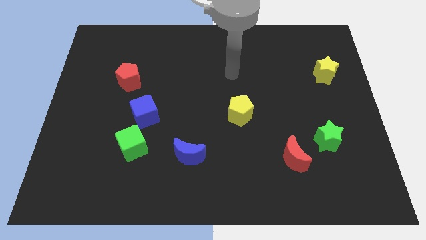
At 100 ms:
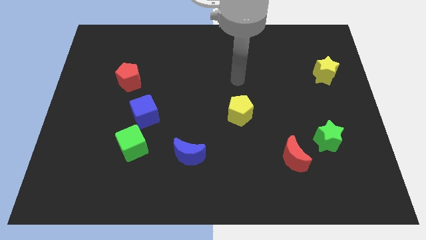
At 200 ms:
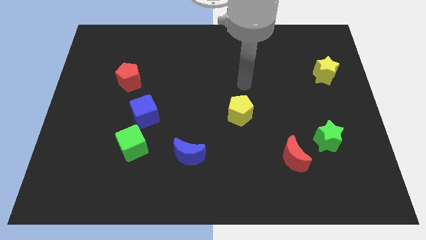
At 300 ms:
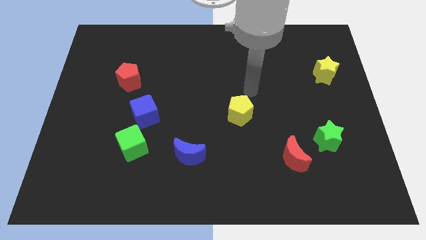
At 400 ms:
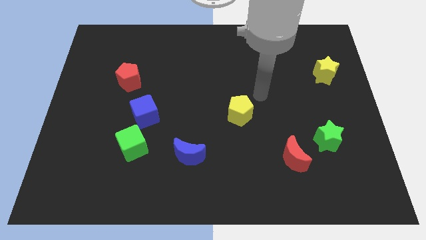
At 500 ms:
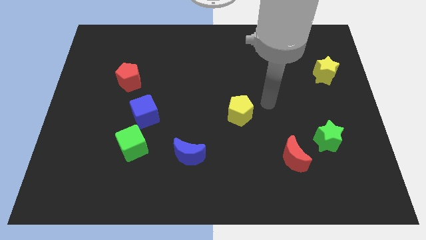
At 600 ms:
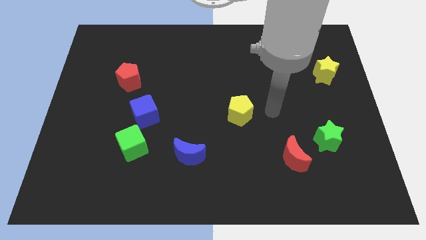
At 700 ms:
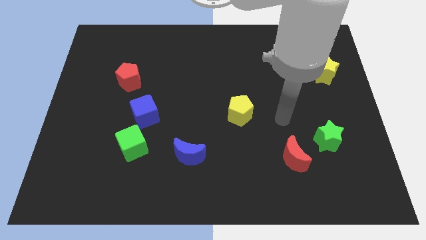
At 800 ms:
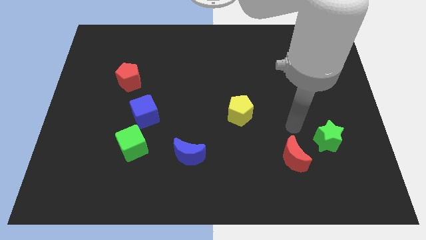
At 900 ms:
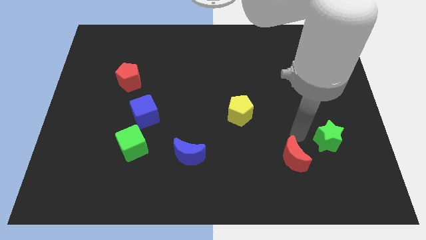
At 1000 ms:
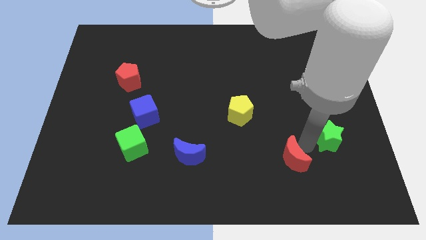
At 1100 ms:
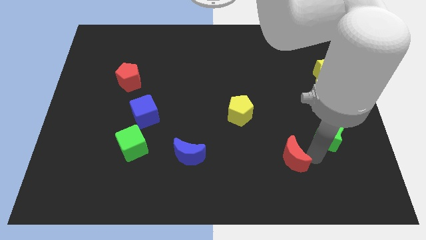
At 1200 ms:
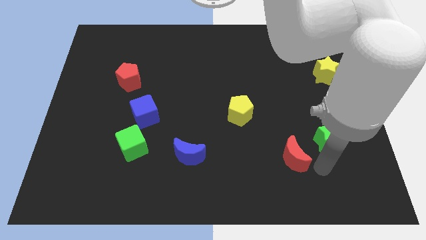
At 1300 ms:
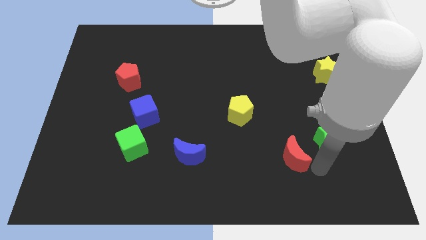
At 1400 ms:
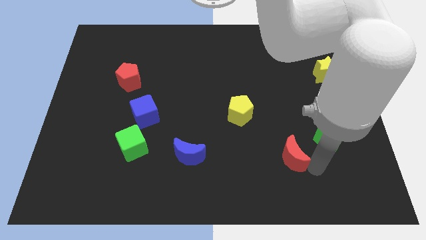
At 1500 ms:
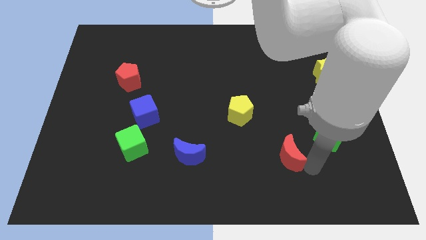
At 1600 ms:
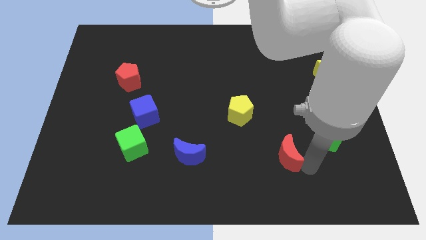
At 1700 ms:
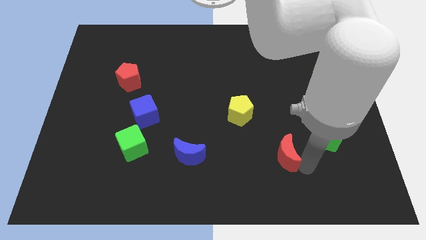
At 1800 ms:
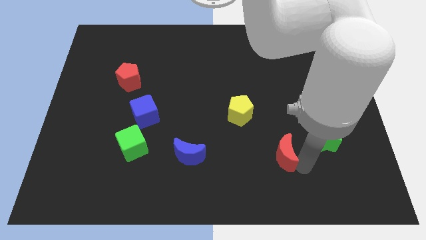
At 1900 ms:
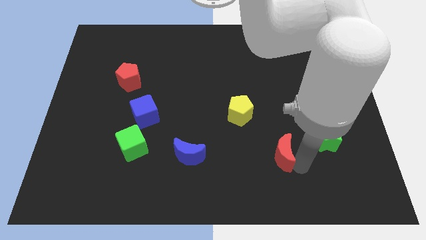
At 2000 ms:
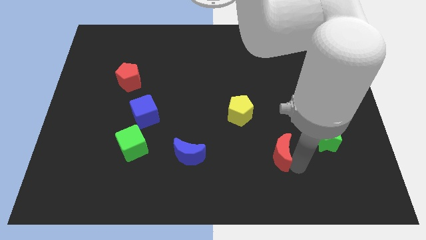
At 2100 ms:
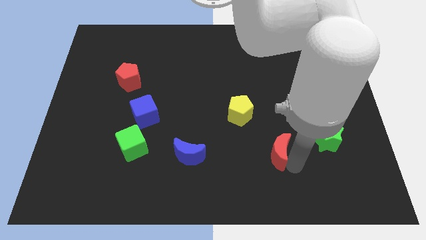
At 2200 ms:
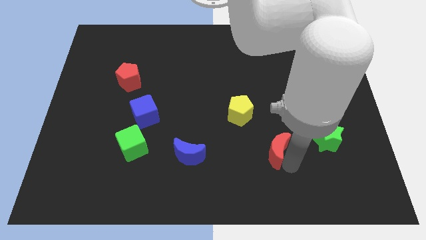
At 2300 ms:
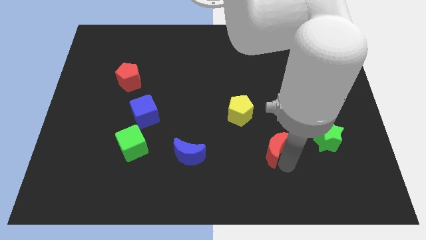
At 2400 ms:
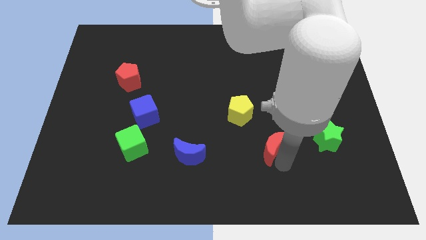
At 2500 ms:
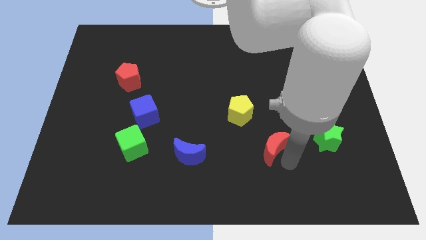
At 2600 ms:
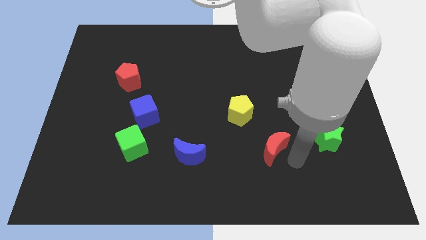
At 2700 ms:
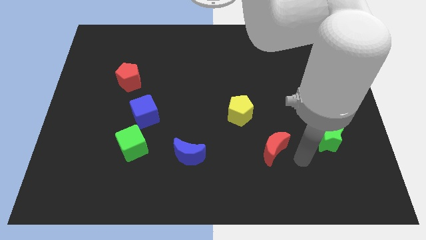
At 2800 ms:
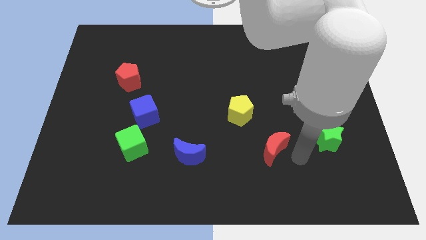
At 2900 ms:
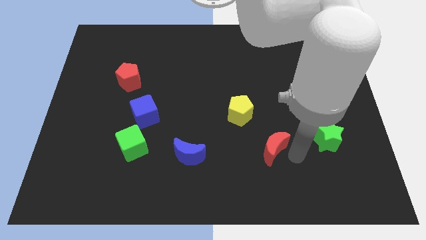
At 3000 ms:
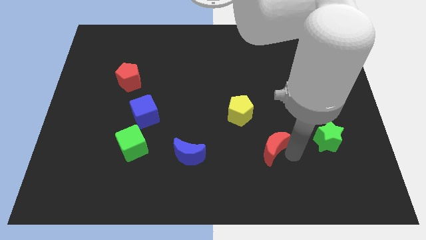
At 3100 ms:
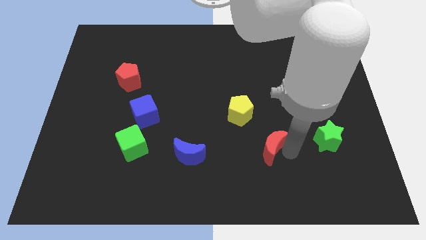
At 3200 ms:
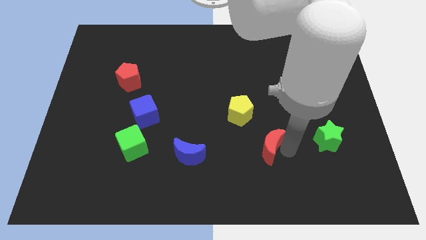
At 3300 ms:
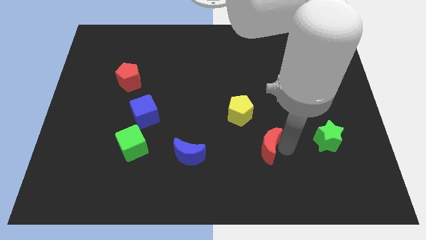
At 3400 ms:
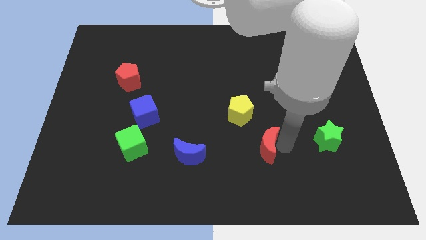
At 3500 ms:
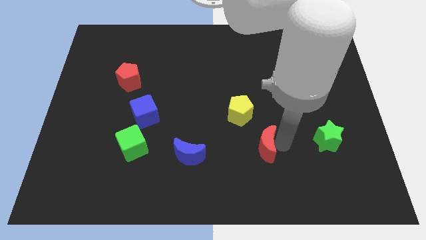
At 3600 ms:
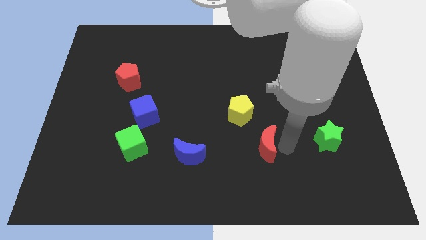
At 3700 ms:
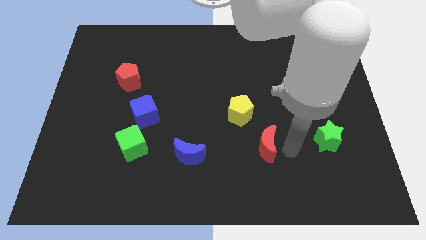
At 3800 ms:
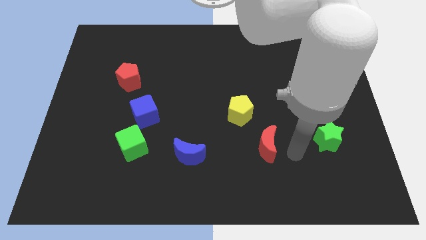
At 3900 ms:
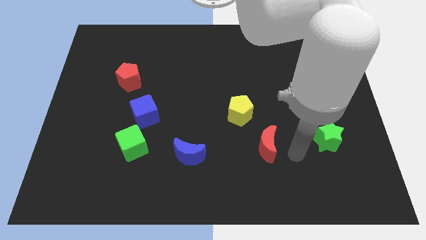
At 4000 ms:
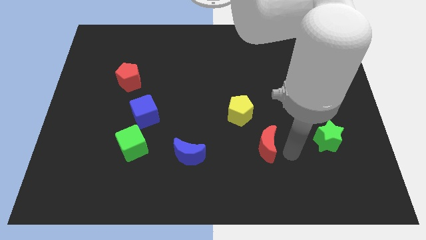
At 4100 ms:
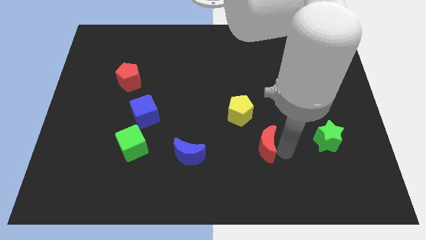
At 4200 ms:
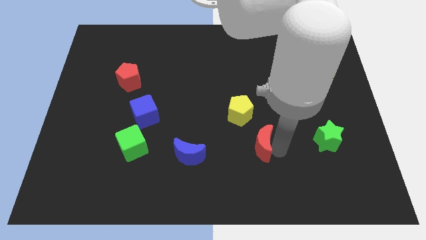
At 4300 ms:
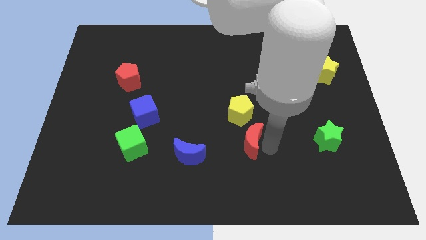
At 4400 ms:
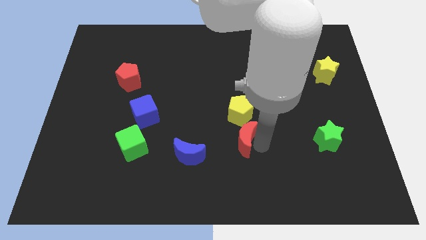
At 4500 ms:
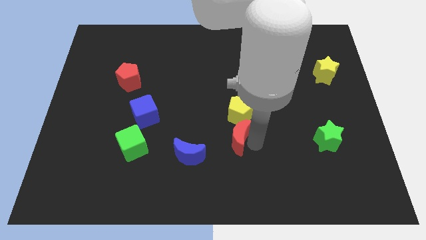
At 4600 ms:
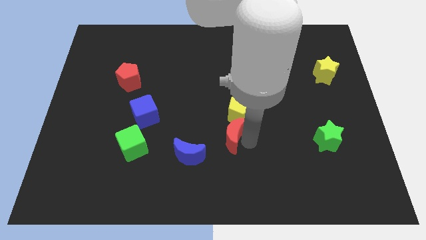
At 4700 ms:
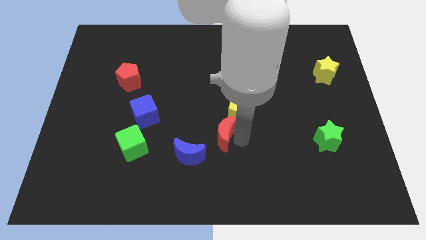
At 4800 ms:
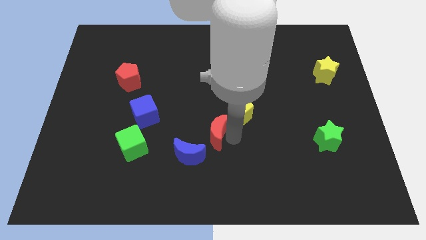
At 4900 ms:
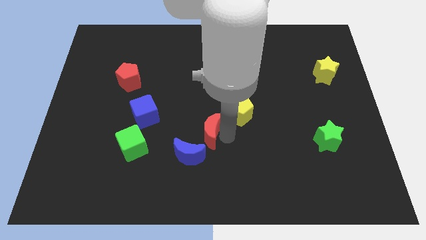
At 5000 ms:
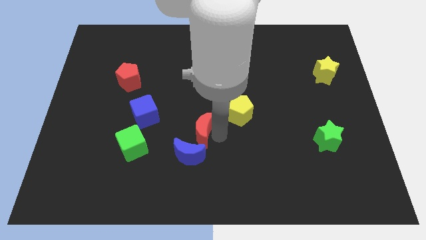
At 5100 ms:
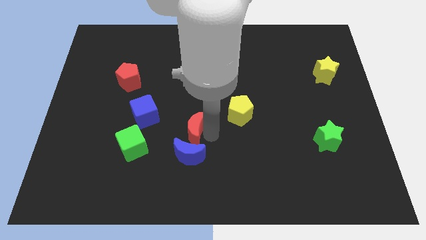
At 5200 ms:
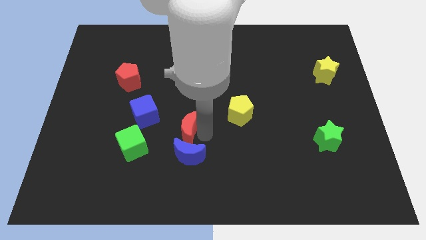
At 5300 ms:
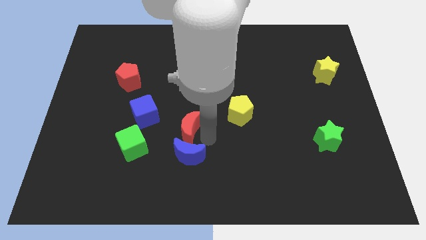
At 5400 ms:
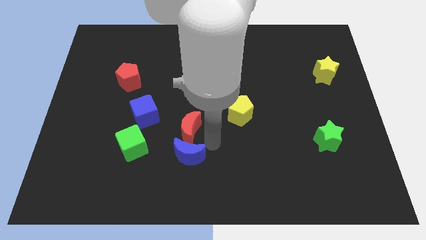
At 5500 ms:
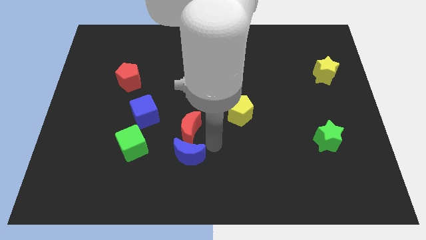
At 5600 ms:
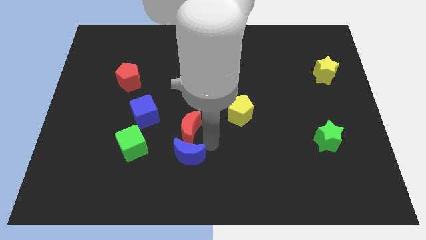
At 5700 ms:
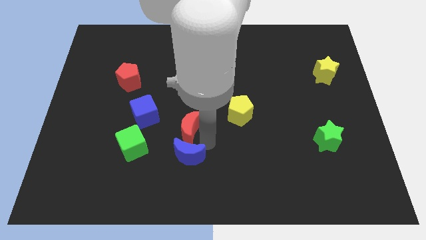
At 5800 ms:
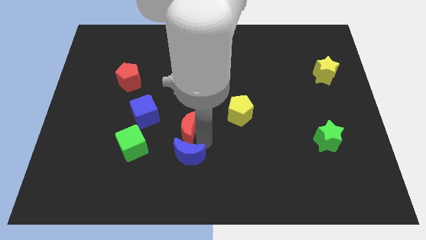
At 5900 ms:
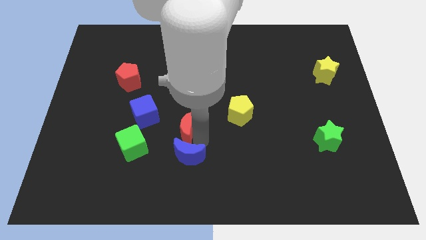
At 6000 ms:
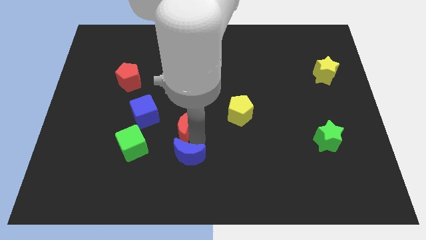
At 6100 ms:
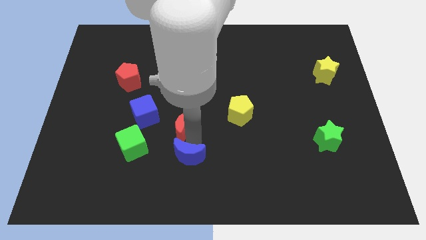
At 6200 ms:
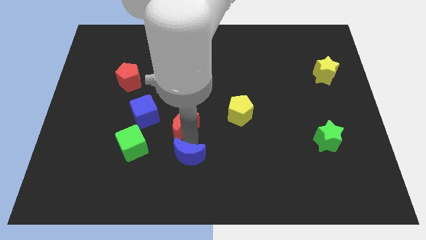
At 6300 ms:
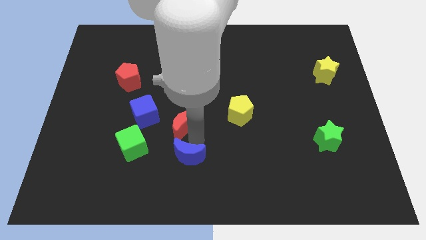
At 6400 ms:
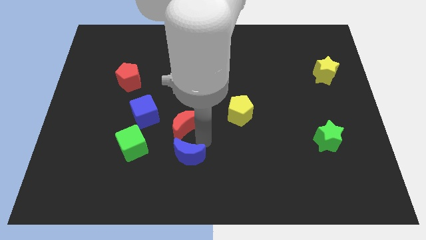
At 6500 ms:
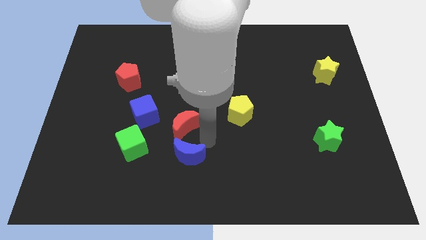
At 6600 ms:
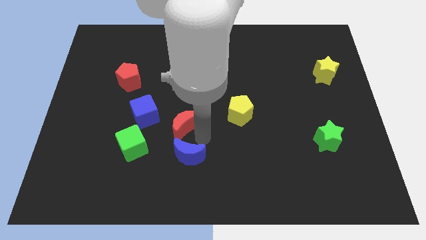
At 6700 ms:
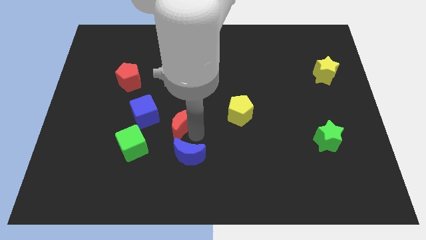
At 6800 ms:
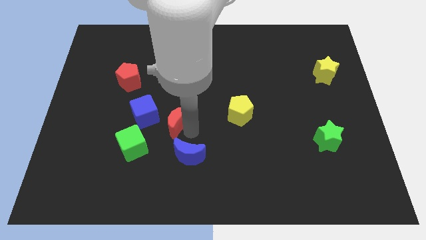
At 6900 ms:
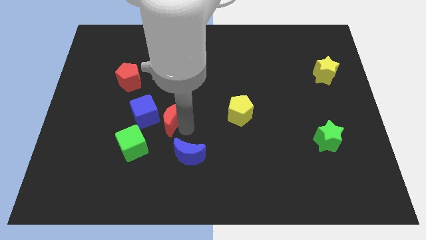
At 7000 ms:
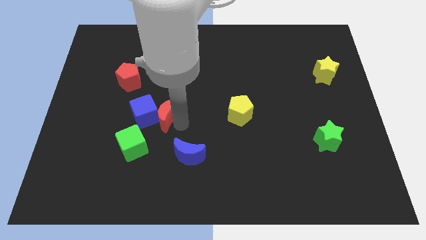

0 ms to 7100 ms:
move the red moon close to the blue cube

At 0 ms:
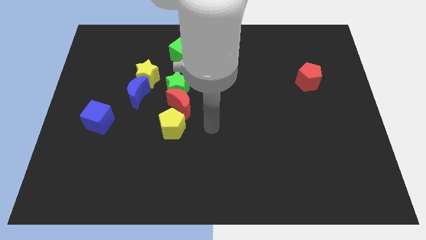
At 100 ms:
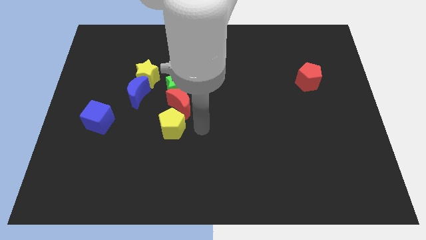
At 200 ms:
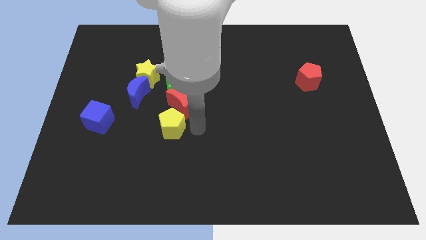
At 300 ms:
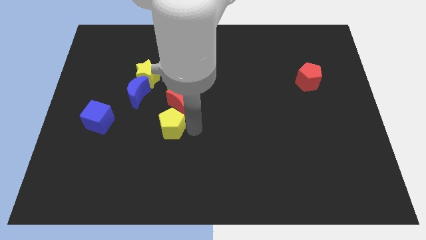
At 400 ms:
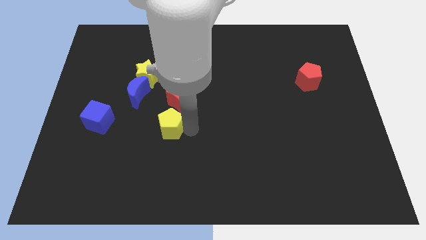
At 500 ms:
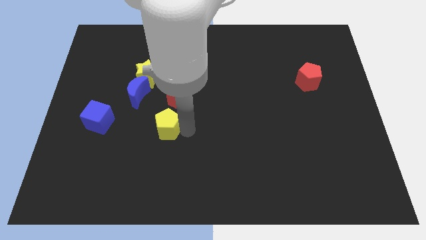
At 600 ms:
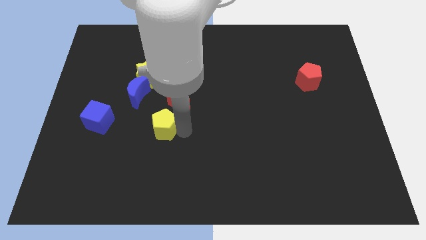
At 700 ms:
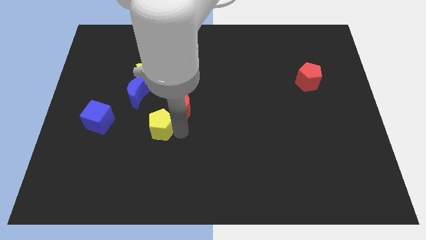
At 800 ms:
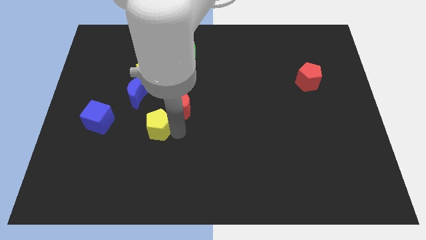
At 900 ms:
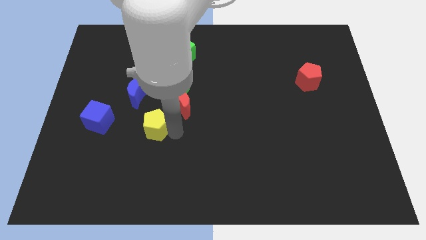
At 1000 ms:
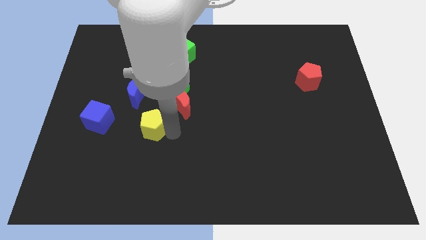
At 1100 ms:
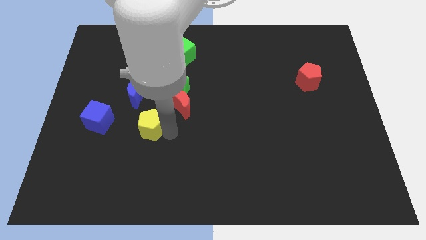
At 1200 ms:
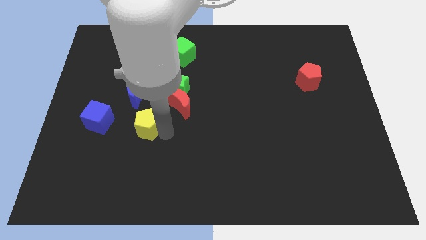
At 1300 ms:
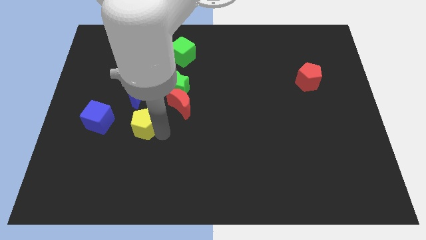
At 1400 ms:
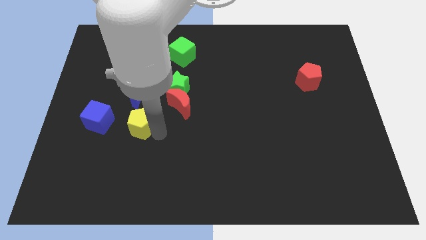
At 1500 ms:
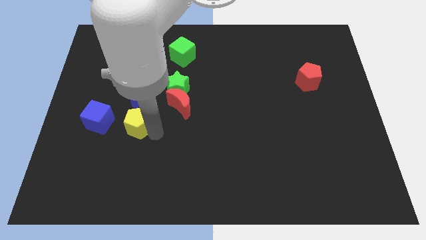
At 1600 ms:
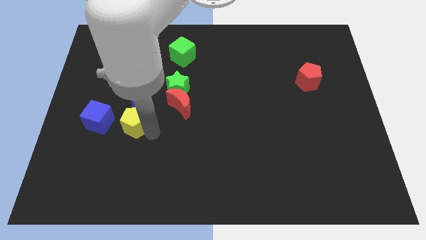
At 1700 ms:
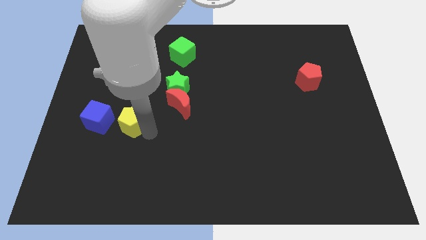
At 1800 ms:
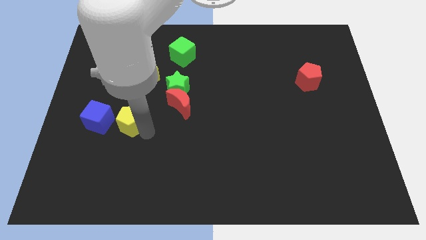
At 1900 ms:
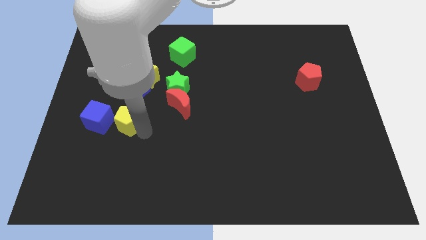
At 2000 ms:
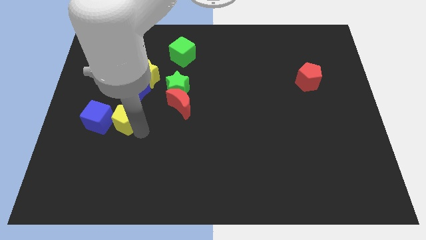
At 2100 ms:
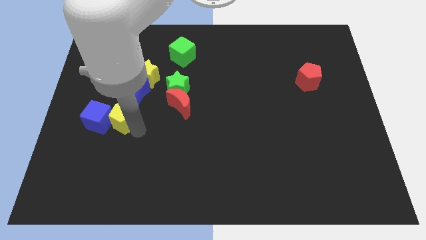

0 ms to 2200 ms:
put the yellow pentagon next to the blue cube
